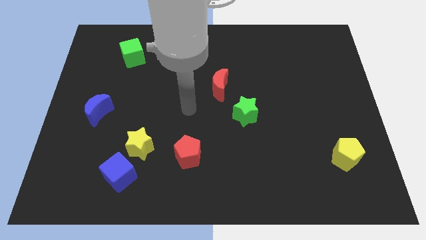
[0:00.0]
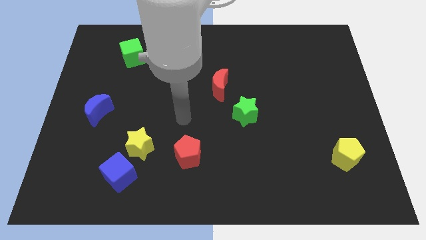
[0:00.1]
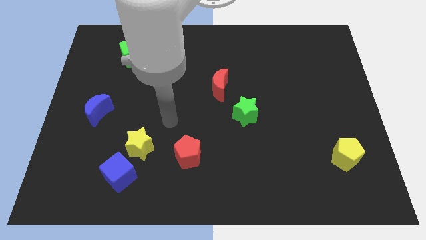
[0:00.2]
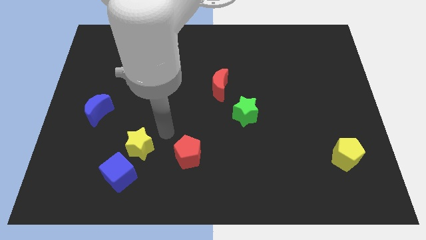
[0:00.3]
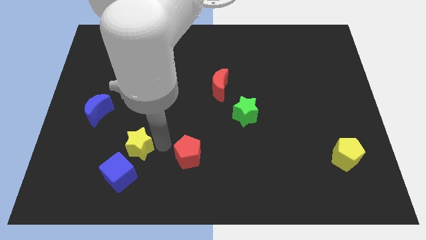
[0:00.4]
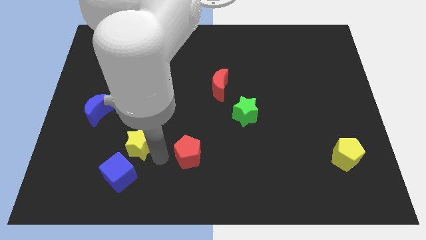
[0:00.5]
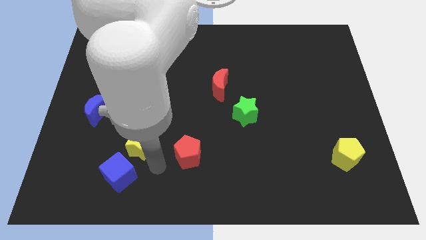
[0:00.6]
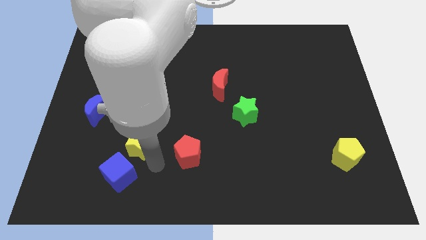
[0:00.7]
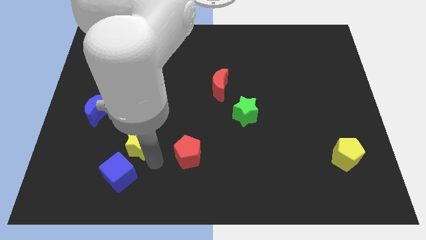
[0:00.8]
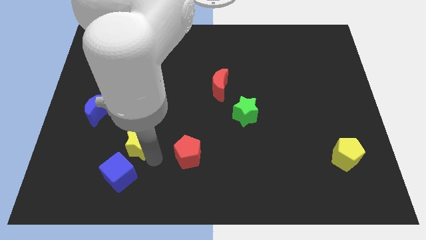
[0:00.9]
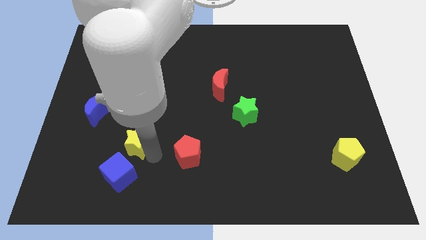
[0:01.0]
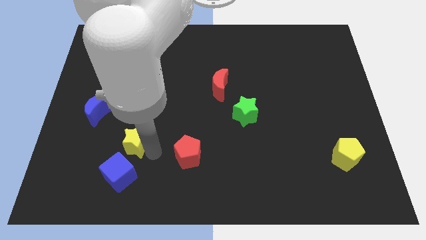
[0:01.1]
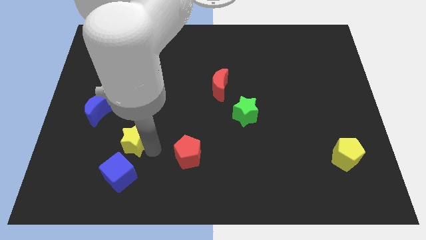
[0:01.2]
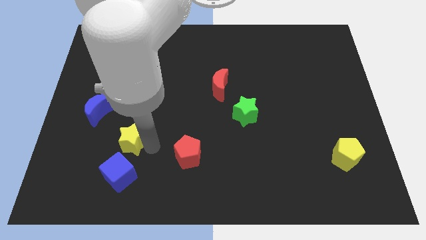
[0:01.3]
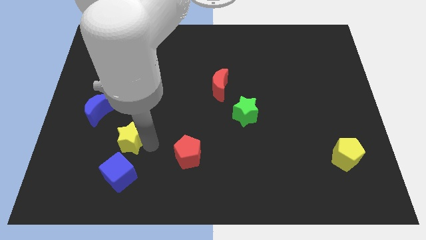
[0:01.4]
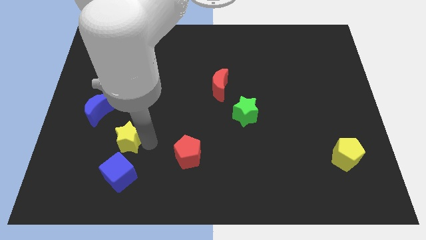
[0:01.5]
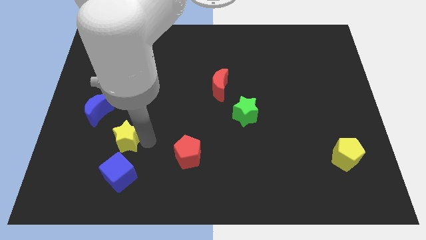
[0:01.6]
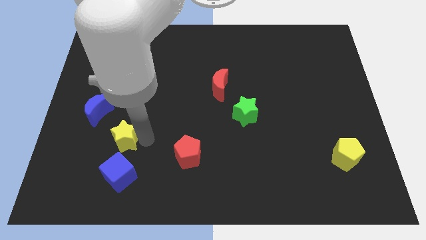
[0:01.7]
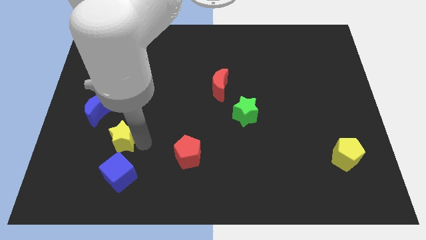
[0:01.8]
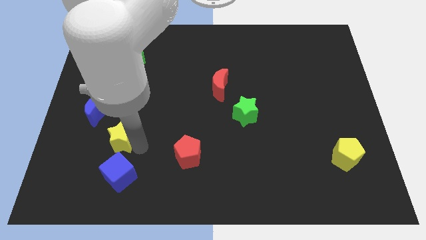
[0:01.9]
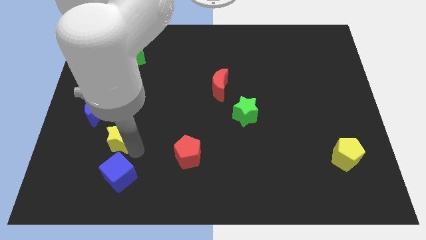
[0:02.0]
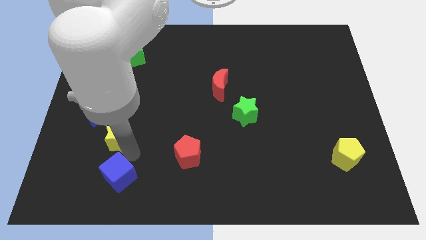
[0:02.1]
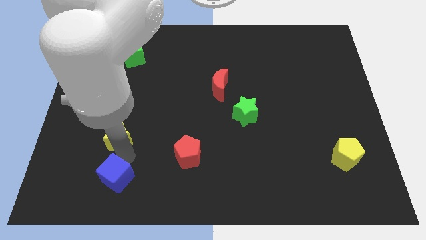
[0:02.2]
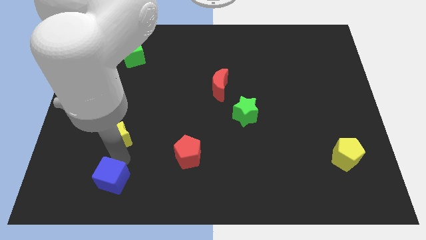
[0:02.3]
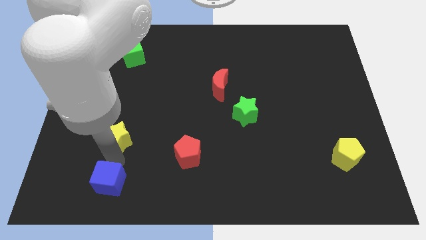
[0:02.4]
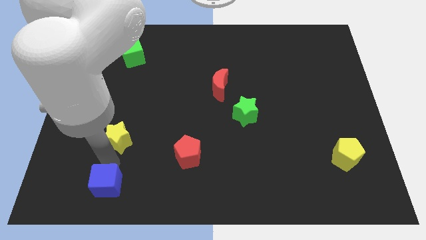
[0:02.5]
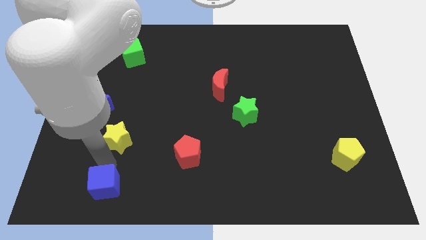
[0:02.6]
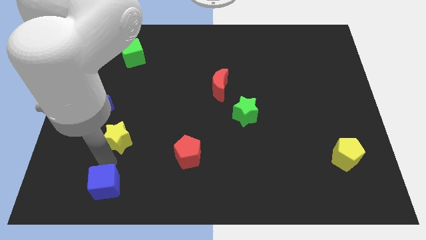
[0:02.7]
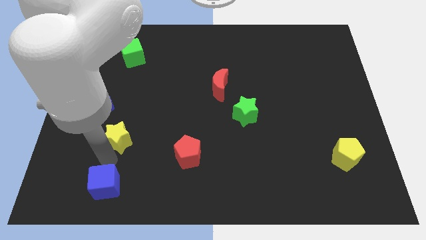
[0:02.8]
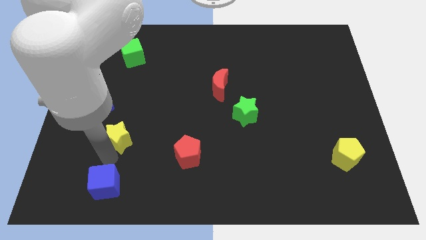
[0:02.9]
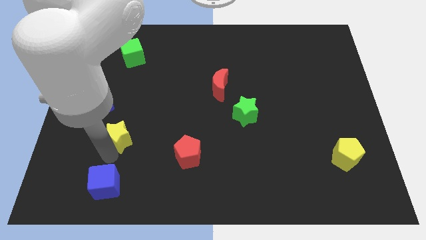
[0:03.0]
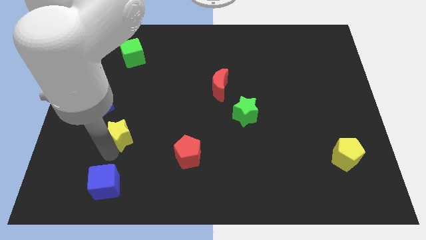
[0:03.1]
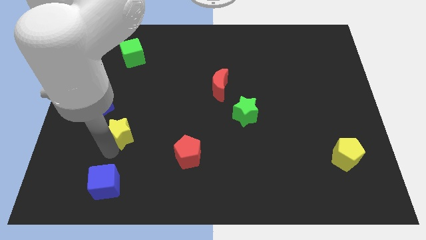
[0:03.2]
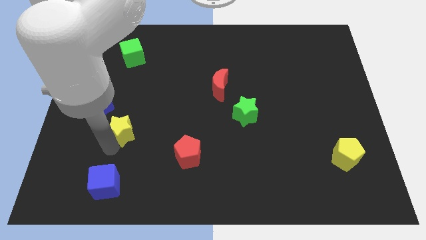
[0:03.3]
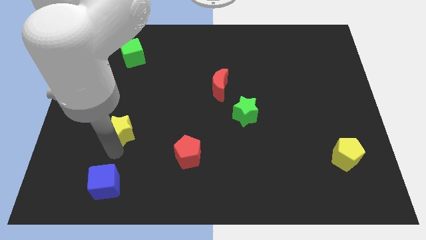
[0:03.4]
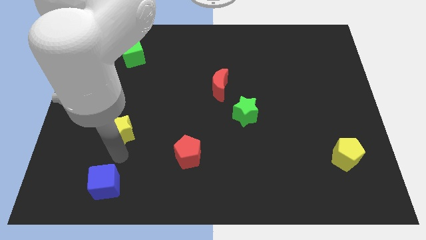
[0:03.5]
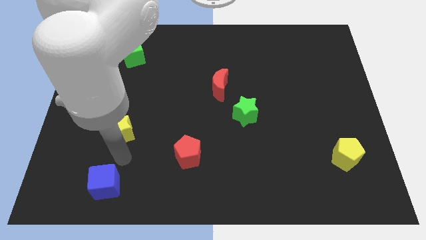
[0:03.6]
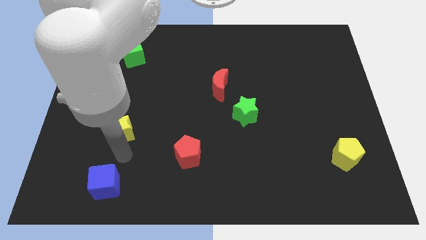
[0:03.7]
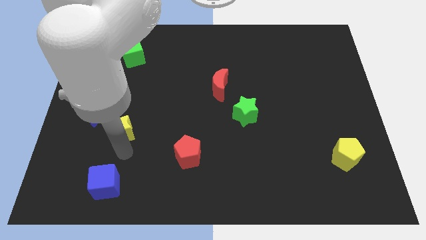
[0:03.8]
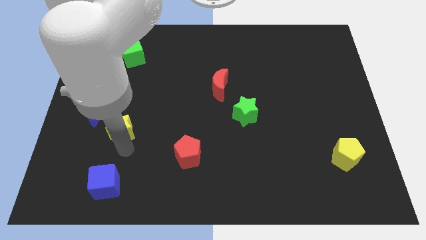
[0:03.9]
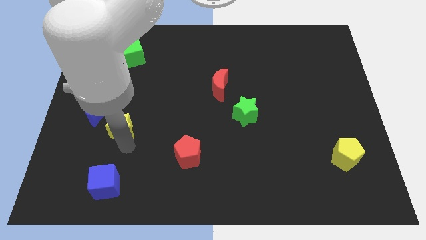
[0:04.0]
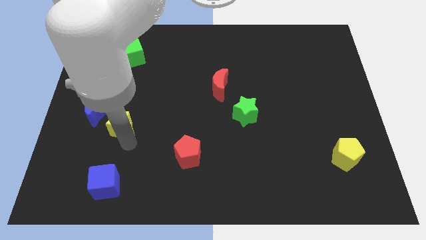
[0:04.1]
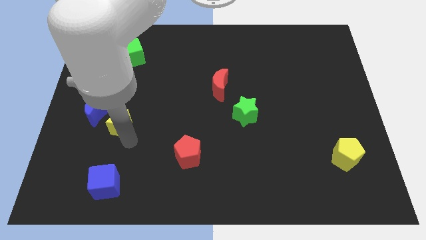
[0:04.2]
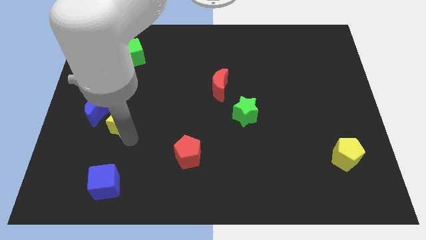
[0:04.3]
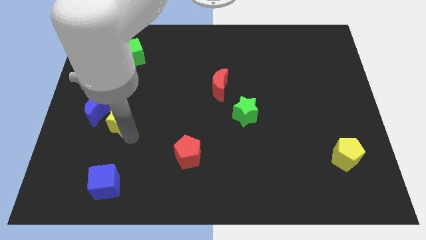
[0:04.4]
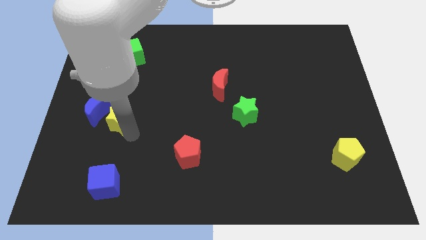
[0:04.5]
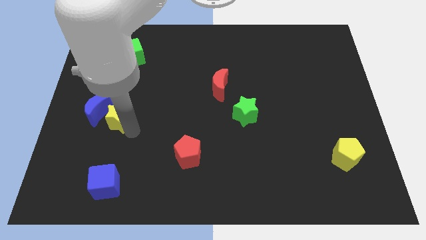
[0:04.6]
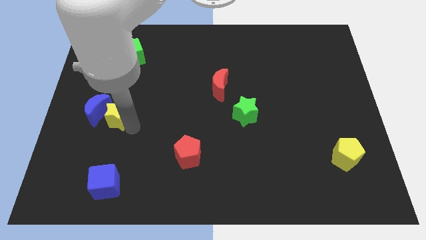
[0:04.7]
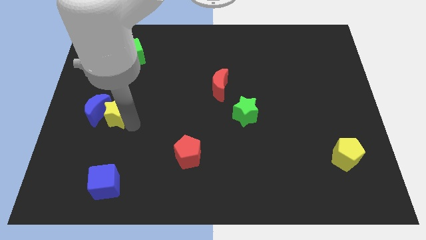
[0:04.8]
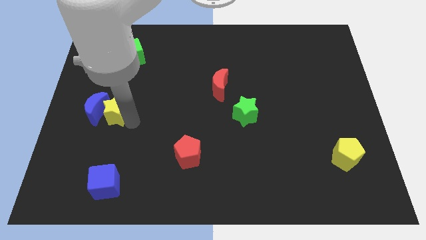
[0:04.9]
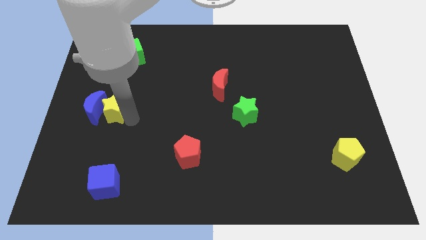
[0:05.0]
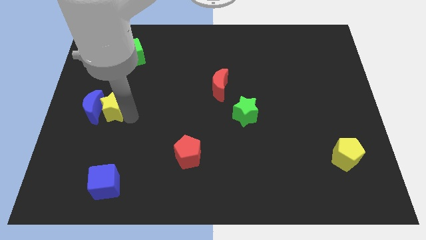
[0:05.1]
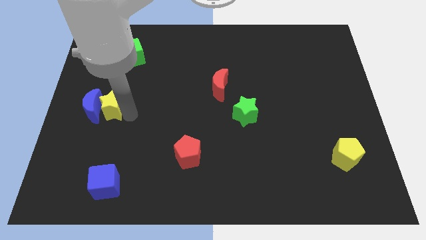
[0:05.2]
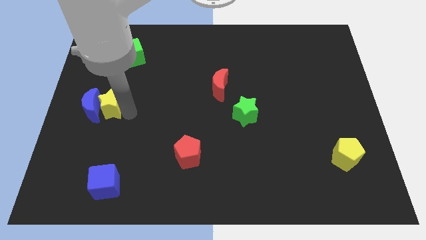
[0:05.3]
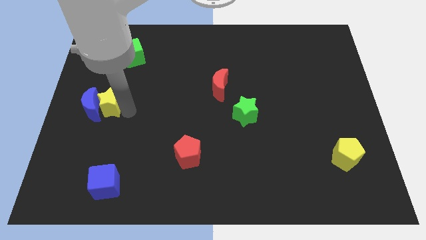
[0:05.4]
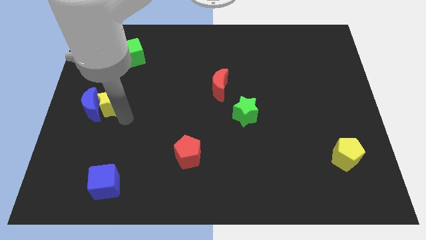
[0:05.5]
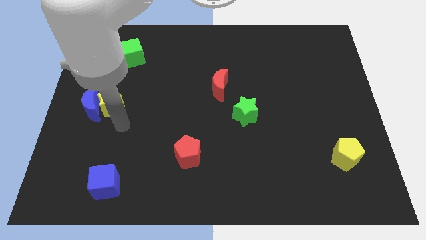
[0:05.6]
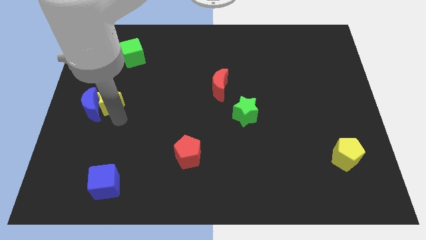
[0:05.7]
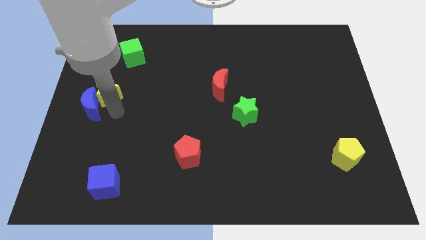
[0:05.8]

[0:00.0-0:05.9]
push the yellow star to the top side of the blue moon

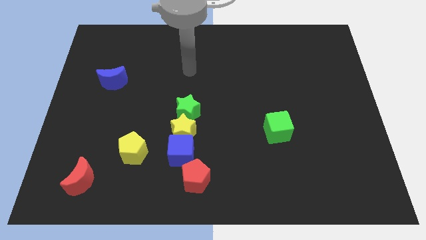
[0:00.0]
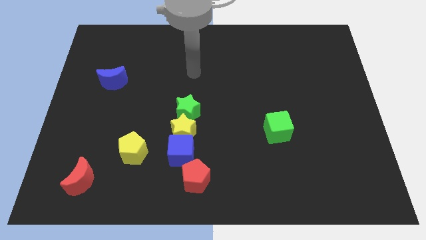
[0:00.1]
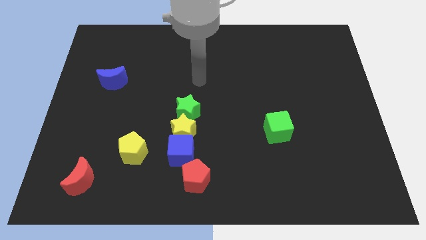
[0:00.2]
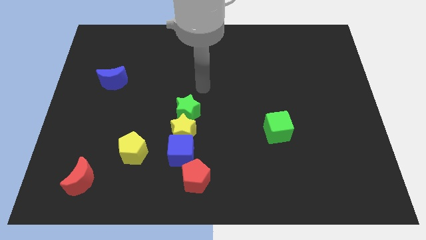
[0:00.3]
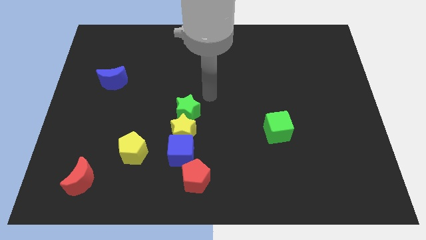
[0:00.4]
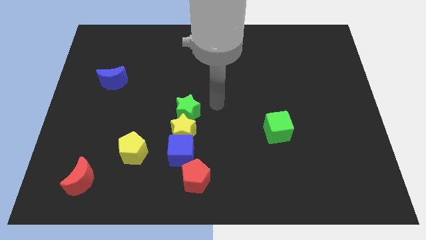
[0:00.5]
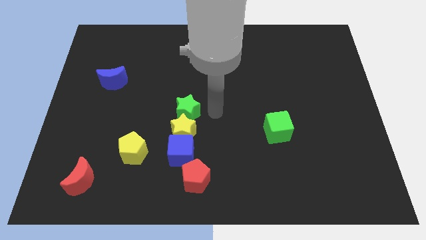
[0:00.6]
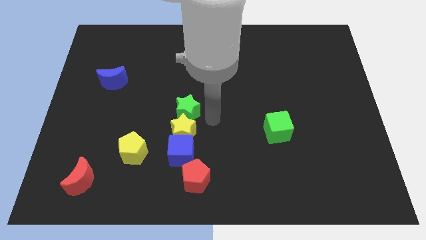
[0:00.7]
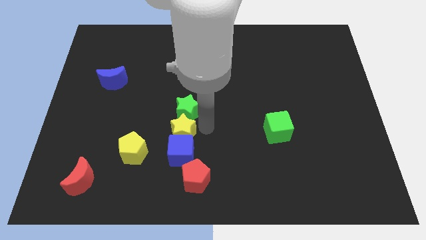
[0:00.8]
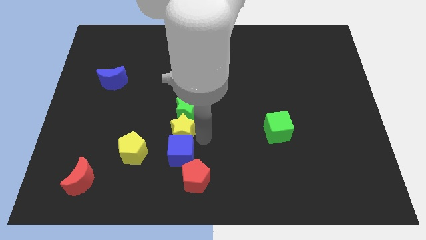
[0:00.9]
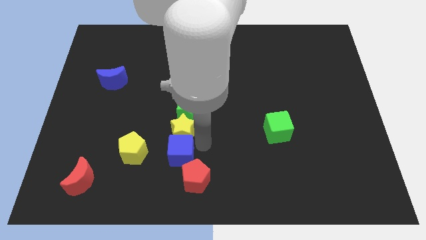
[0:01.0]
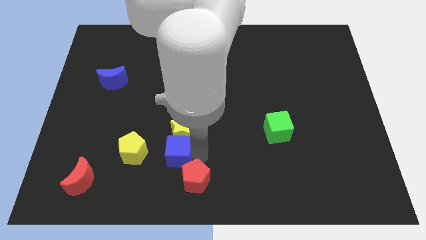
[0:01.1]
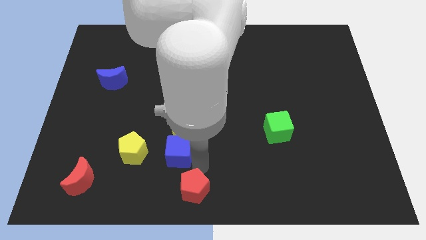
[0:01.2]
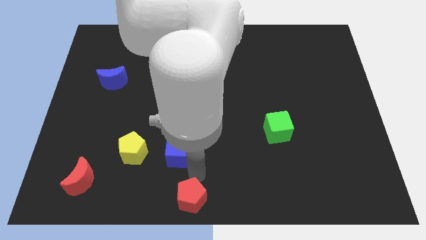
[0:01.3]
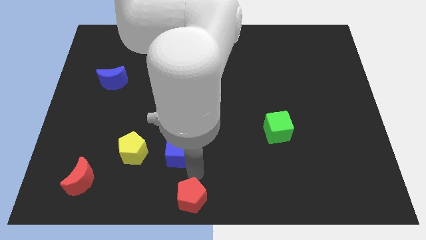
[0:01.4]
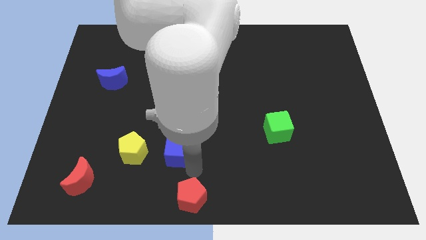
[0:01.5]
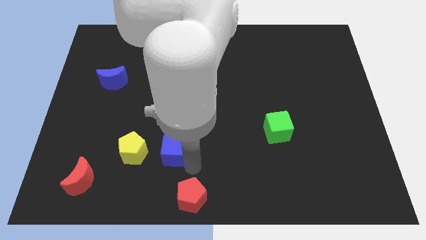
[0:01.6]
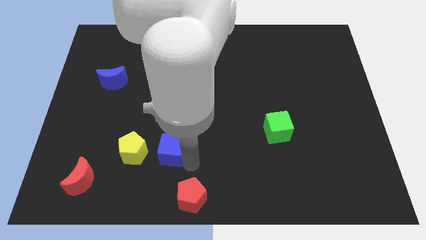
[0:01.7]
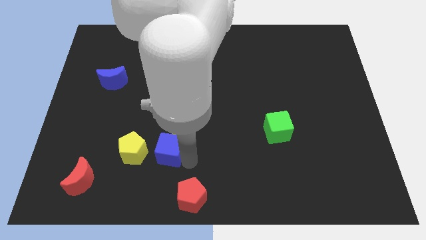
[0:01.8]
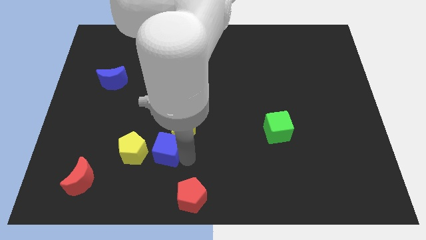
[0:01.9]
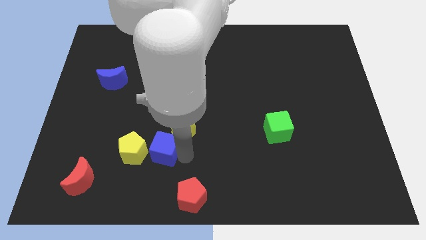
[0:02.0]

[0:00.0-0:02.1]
push the blue cube to the bottom left side of the green star
